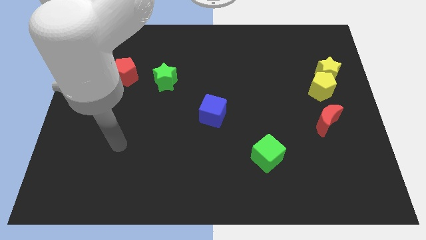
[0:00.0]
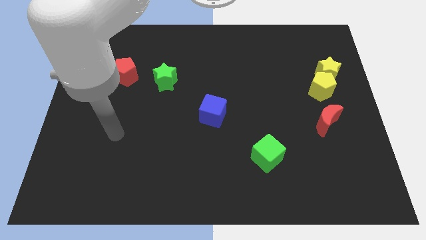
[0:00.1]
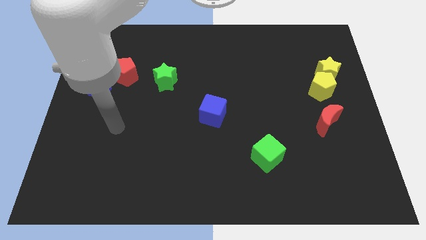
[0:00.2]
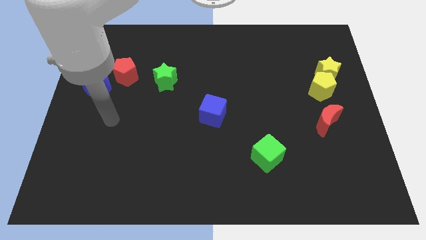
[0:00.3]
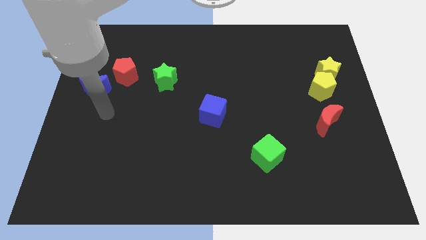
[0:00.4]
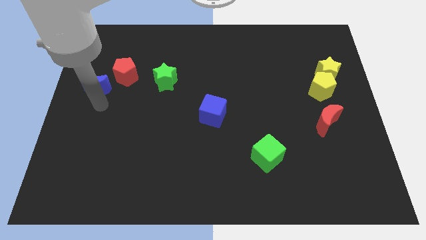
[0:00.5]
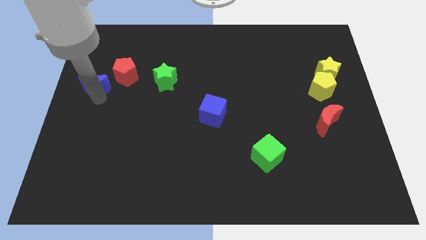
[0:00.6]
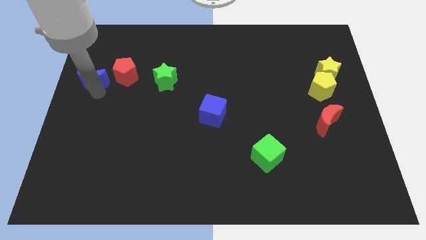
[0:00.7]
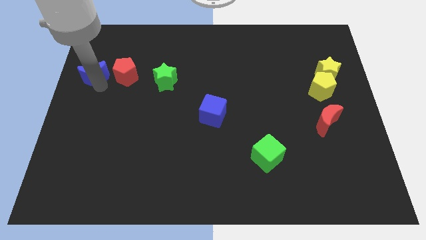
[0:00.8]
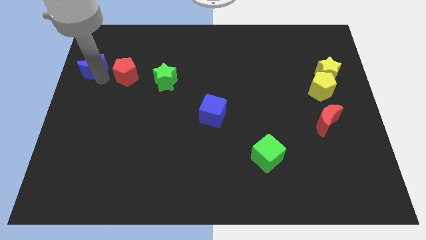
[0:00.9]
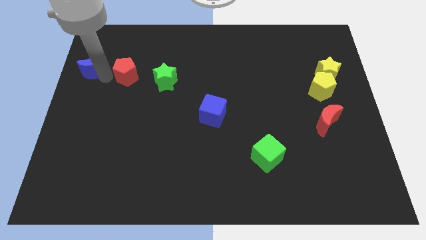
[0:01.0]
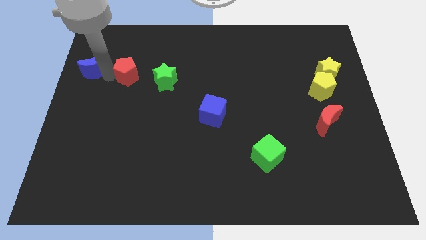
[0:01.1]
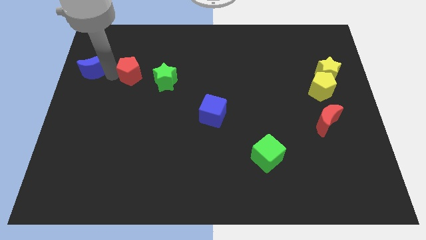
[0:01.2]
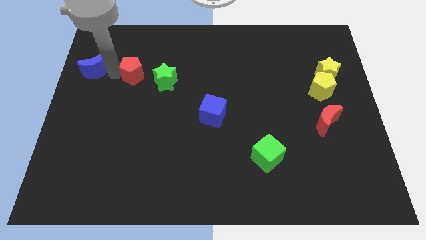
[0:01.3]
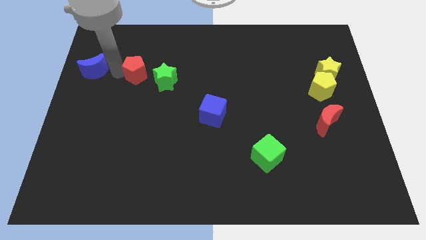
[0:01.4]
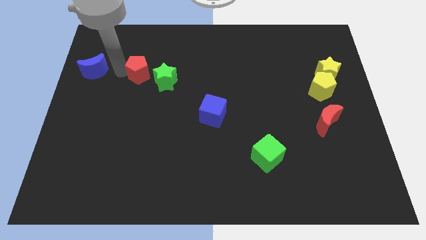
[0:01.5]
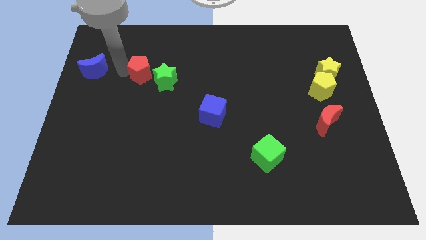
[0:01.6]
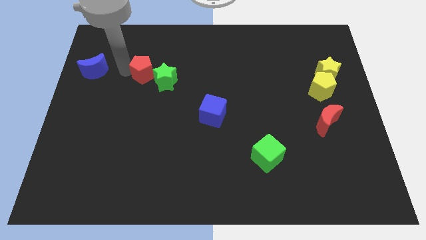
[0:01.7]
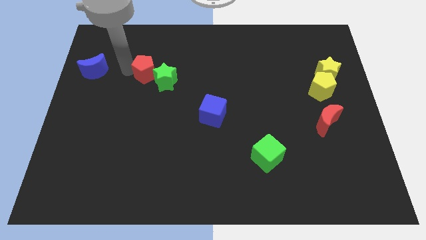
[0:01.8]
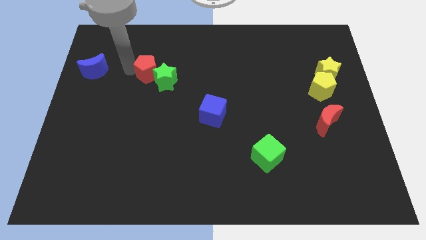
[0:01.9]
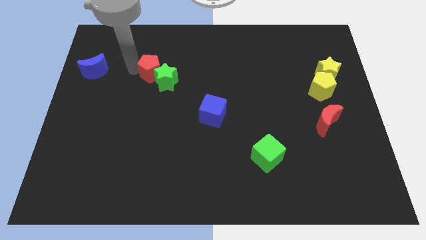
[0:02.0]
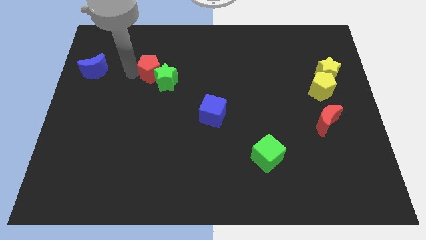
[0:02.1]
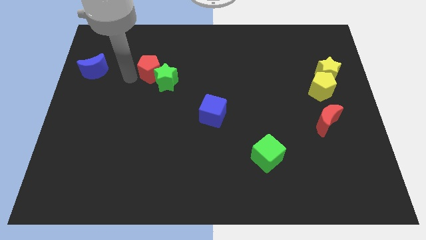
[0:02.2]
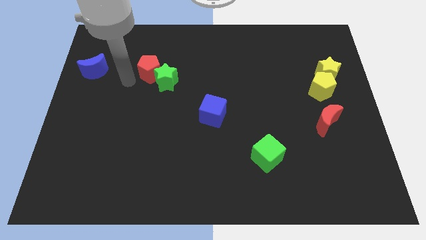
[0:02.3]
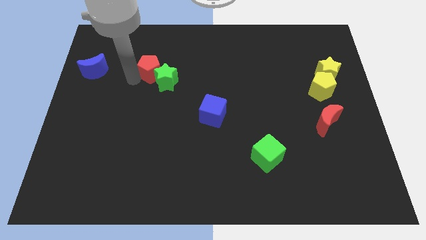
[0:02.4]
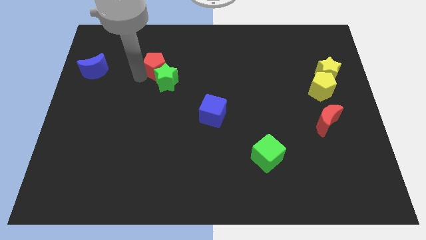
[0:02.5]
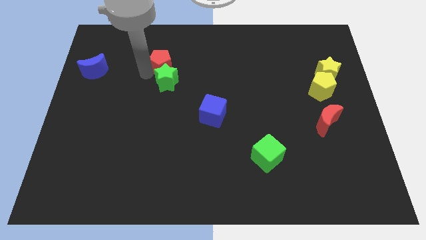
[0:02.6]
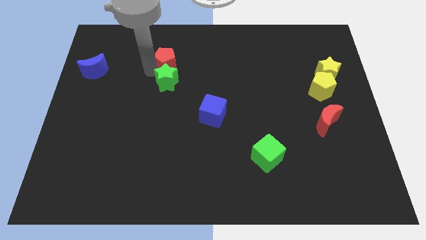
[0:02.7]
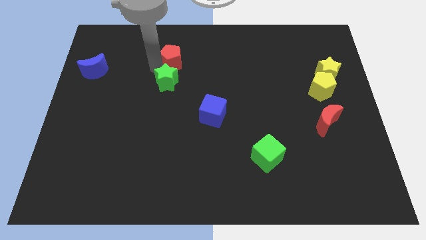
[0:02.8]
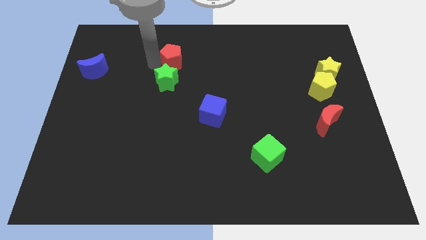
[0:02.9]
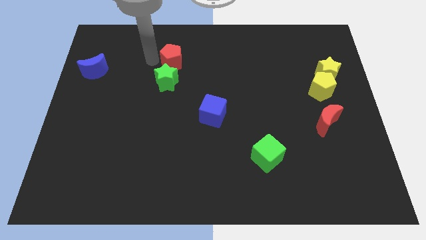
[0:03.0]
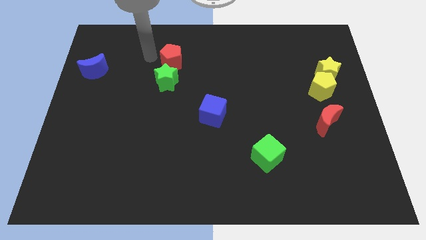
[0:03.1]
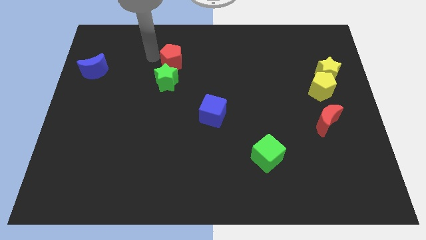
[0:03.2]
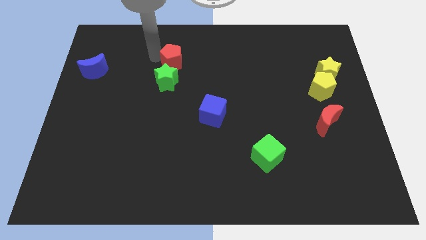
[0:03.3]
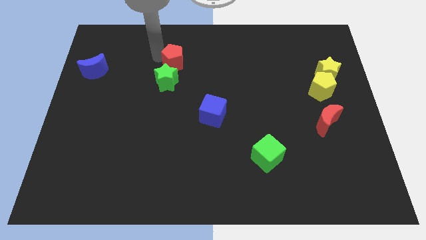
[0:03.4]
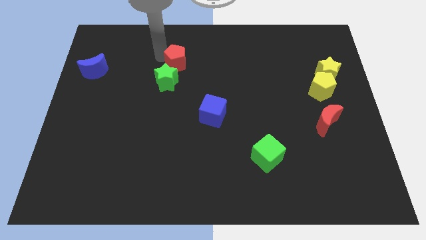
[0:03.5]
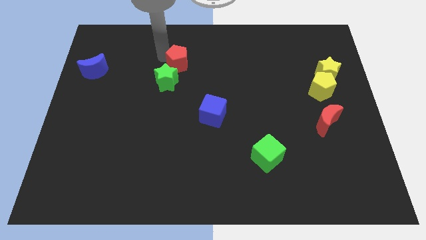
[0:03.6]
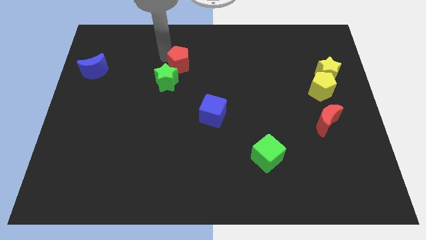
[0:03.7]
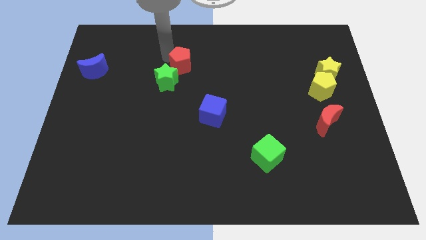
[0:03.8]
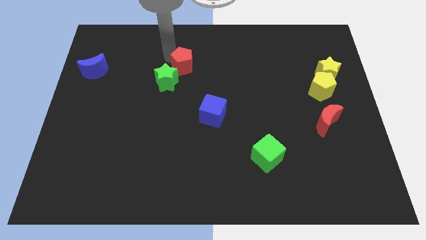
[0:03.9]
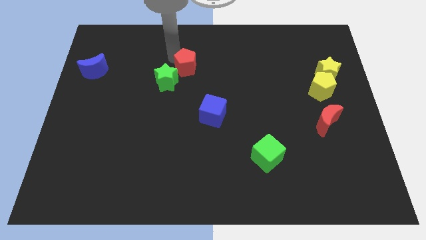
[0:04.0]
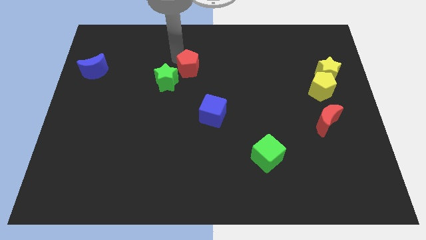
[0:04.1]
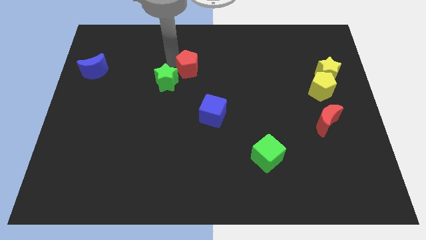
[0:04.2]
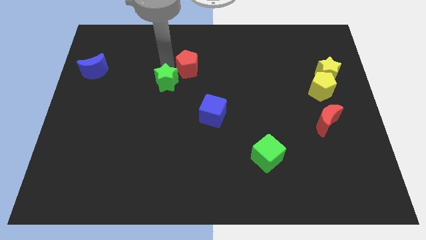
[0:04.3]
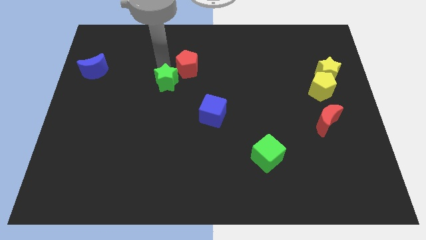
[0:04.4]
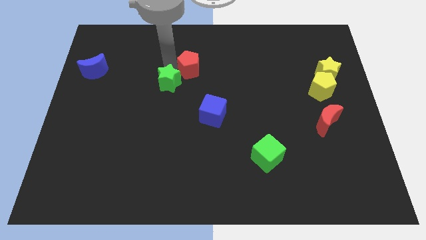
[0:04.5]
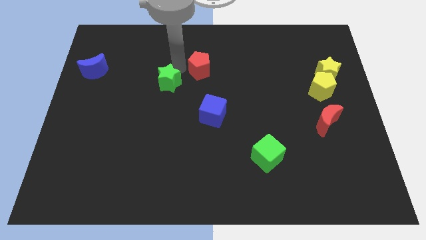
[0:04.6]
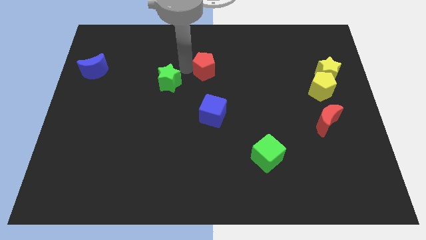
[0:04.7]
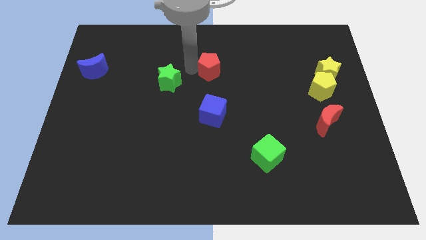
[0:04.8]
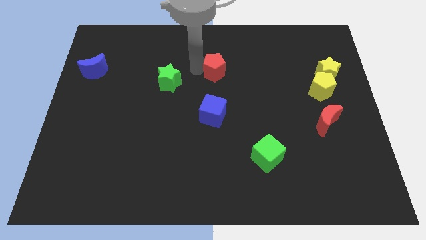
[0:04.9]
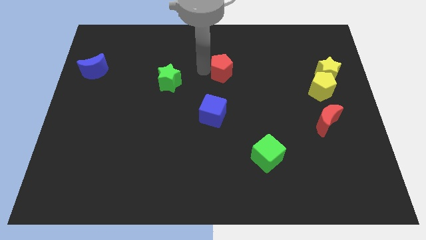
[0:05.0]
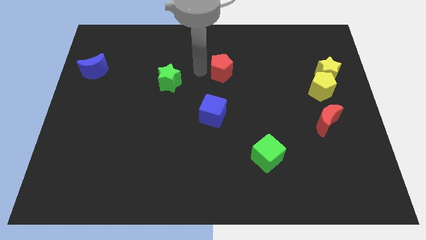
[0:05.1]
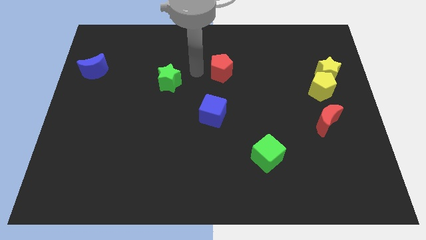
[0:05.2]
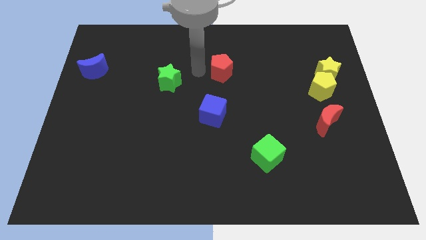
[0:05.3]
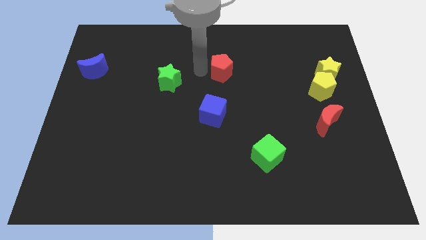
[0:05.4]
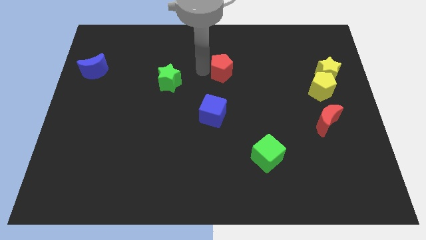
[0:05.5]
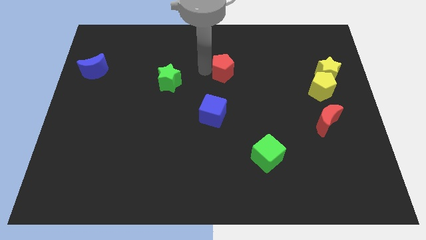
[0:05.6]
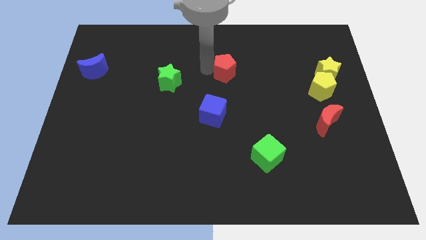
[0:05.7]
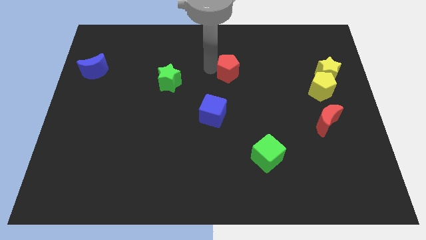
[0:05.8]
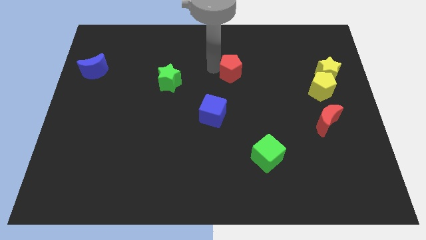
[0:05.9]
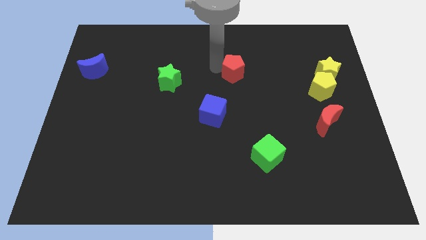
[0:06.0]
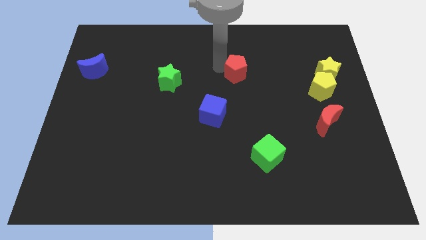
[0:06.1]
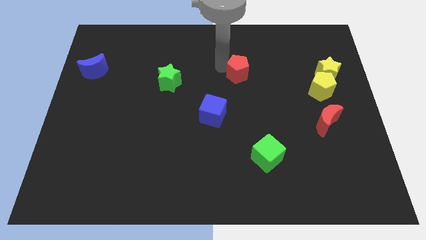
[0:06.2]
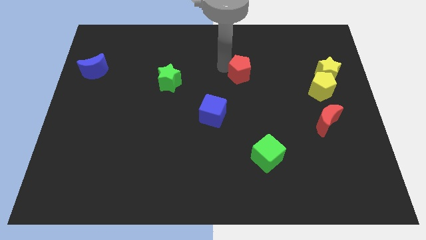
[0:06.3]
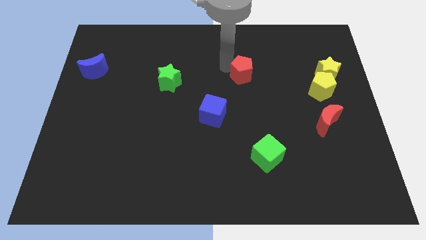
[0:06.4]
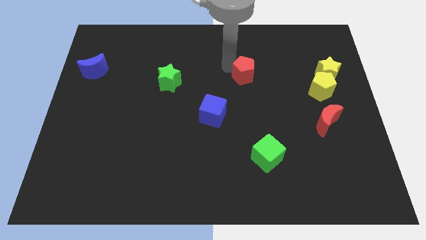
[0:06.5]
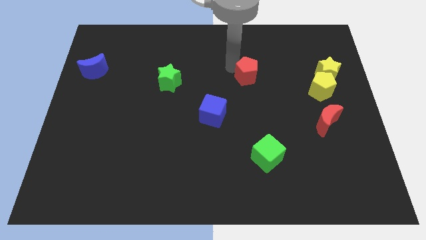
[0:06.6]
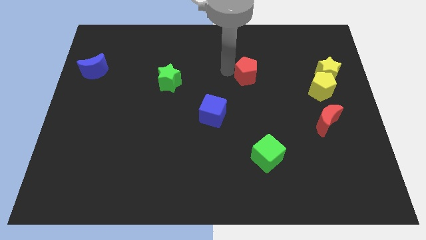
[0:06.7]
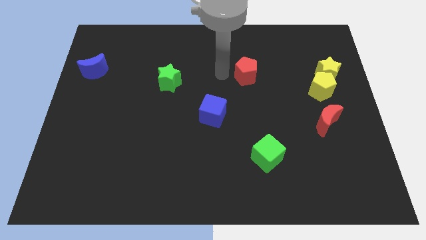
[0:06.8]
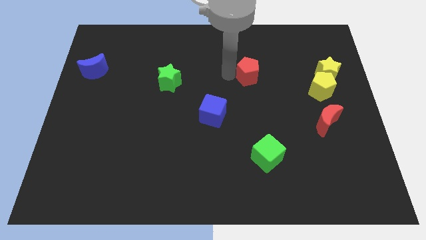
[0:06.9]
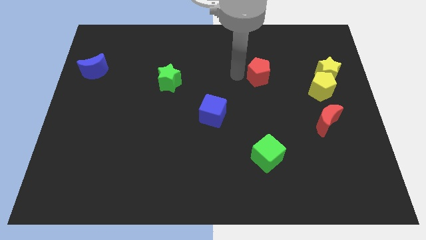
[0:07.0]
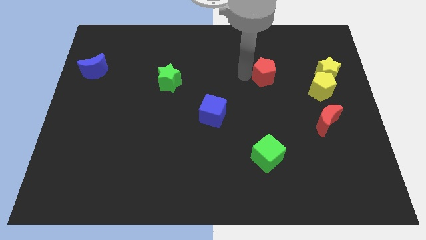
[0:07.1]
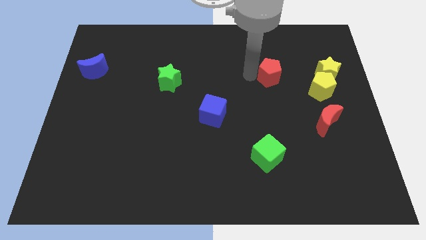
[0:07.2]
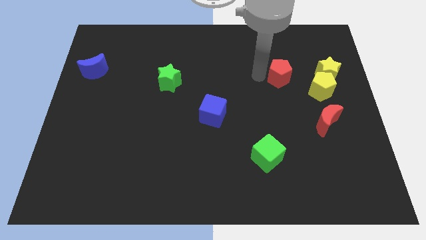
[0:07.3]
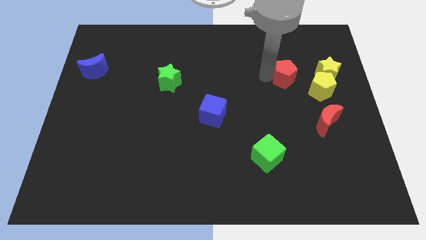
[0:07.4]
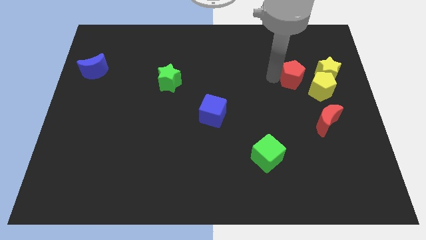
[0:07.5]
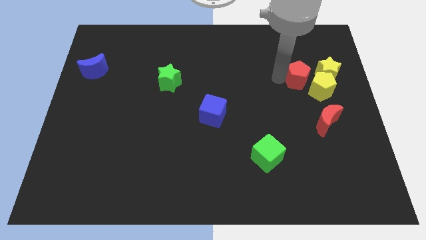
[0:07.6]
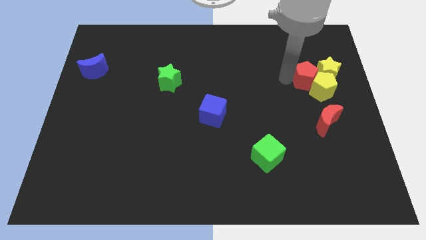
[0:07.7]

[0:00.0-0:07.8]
slide the red pentagon next to the yellow star
